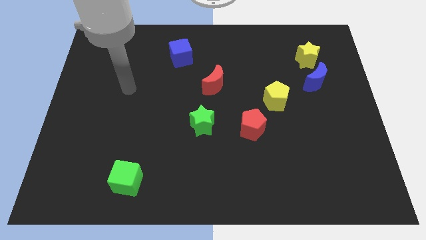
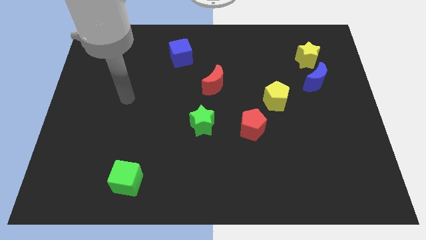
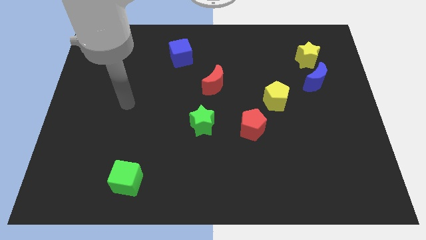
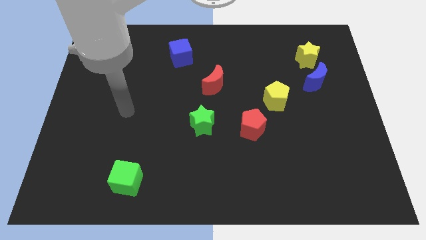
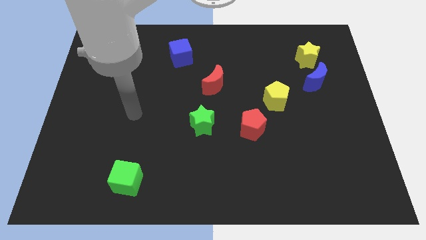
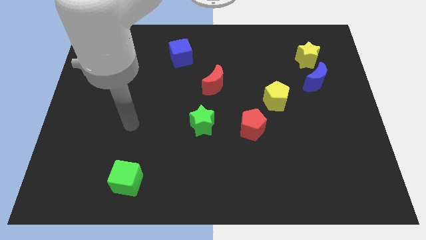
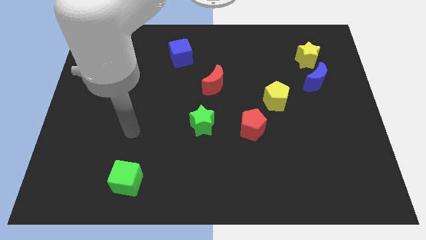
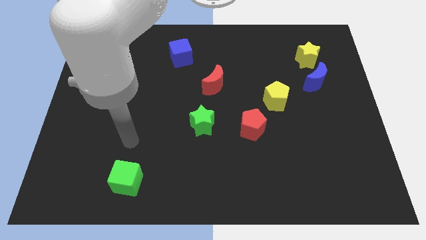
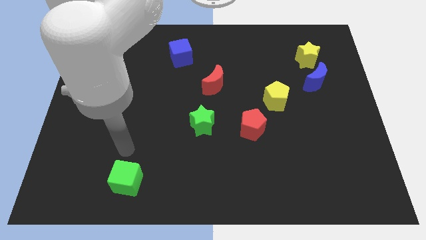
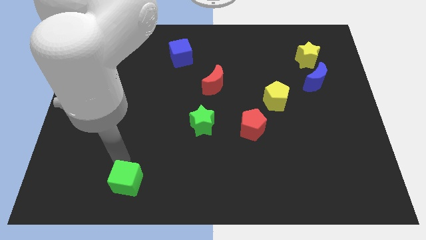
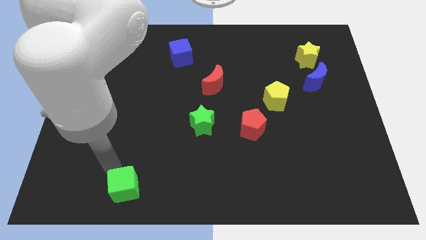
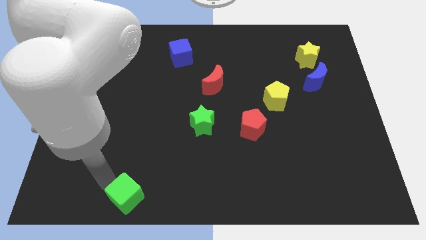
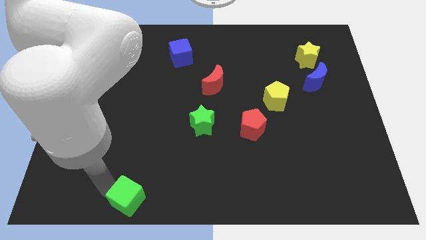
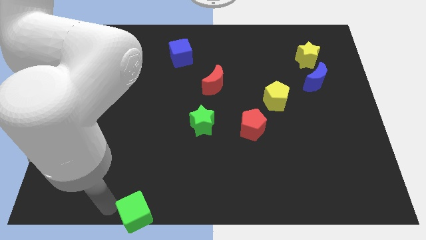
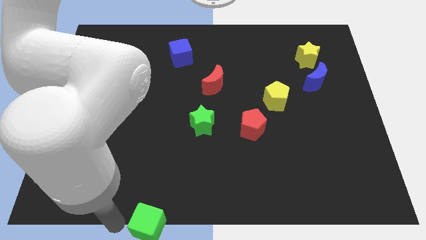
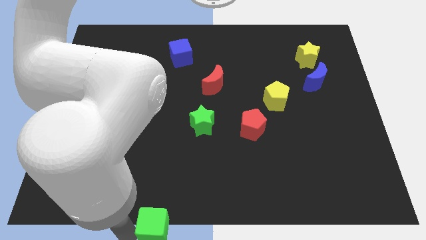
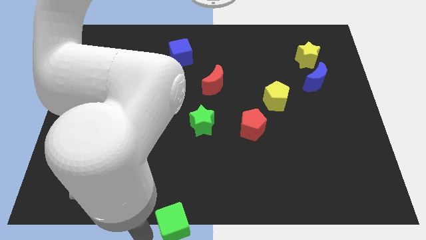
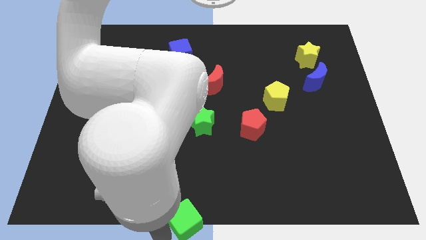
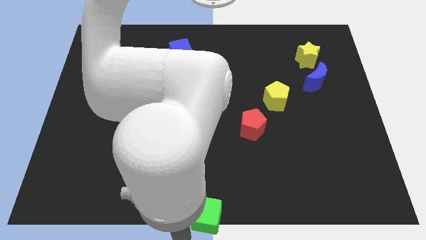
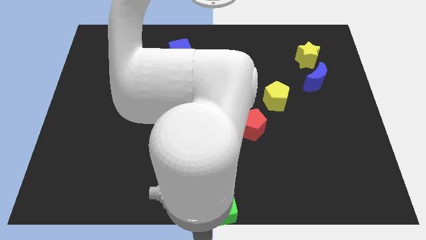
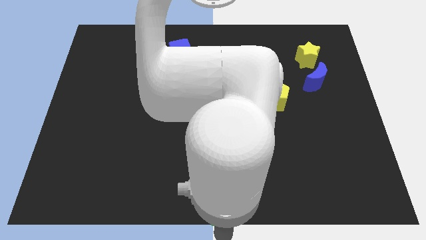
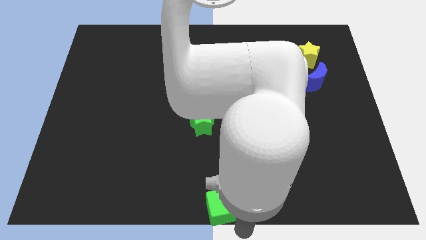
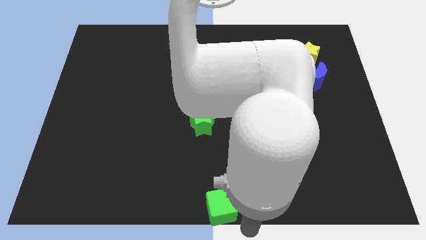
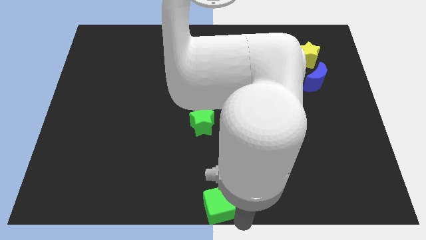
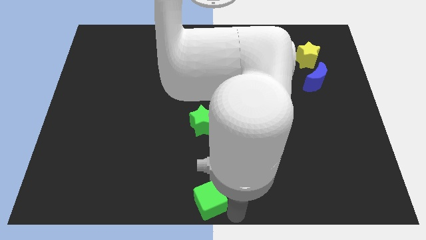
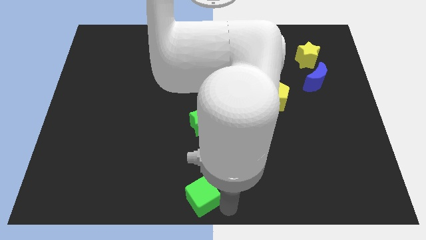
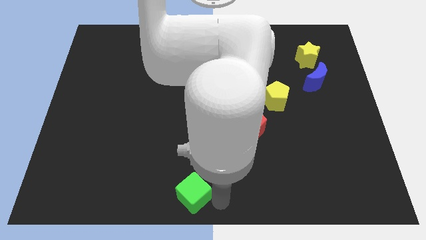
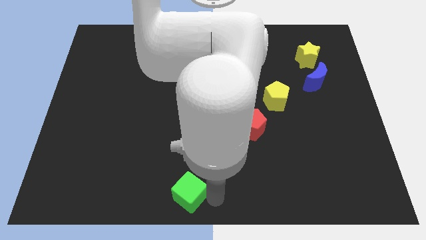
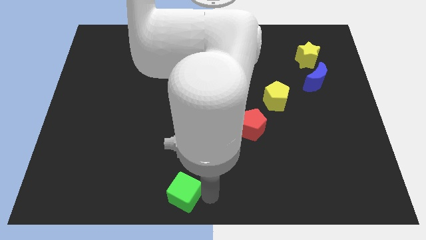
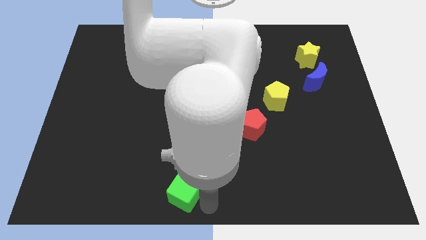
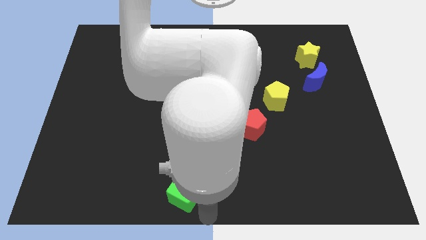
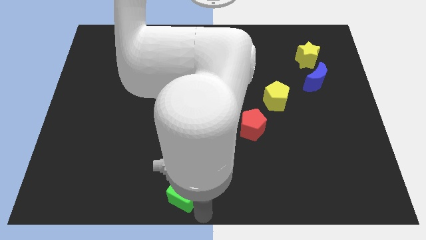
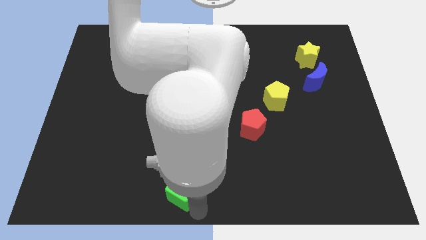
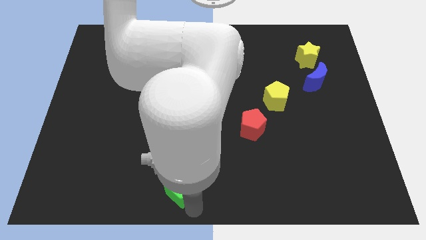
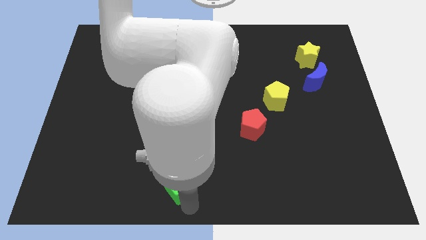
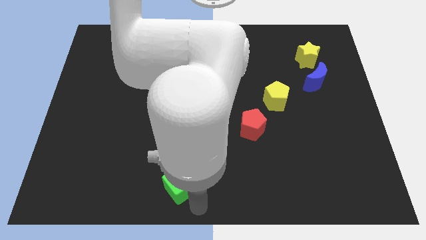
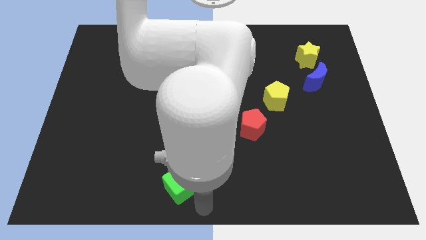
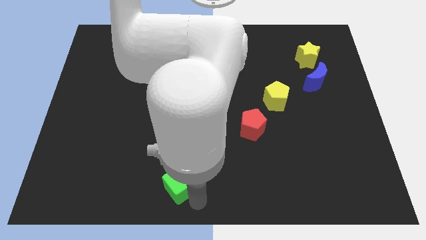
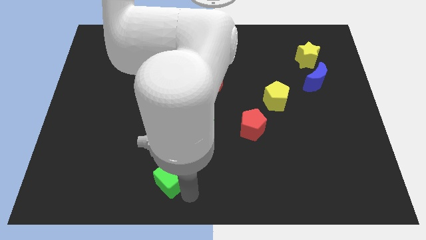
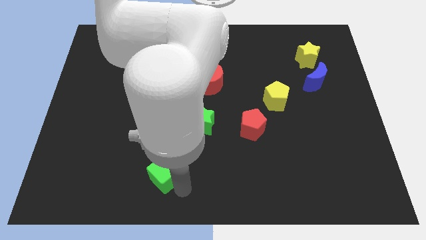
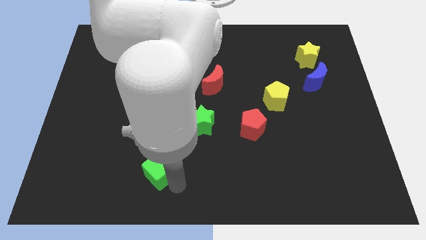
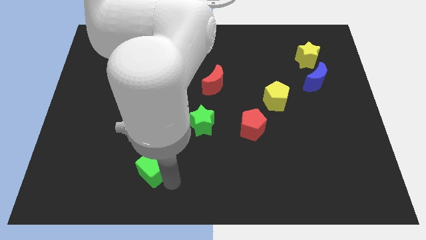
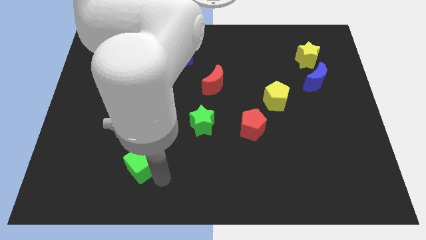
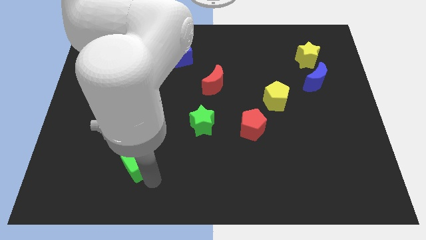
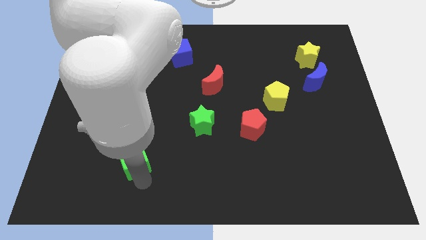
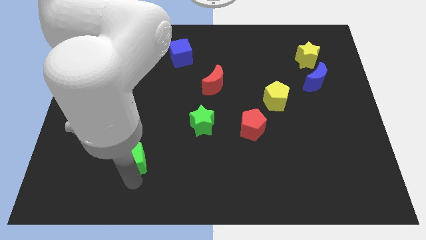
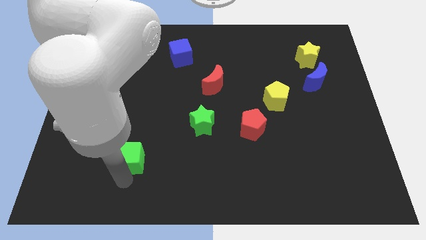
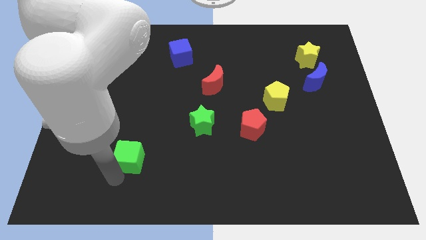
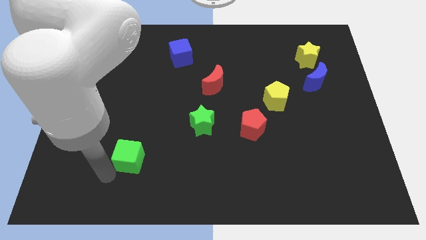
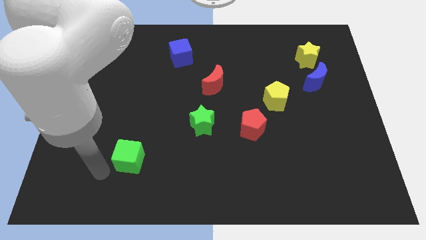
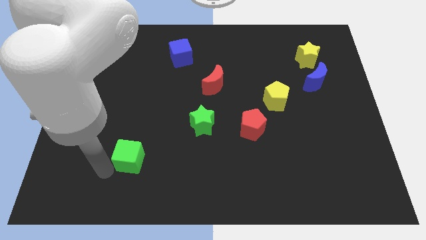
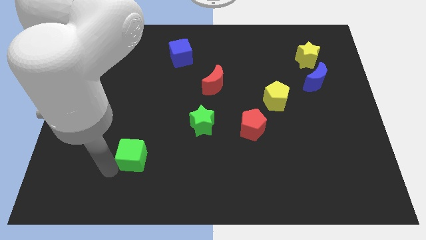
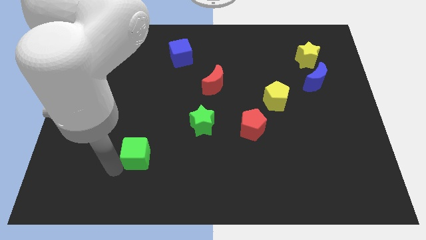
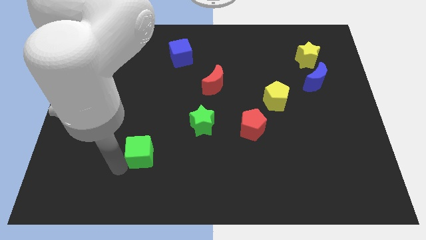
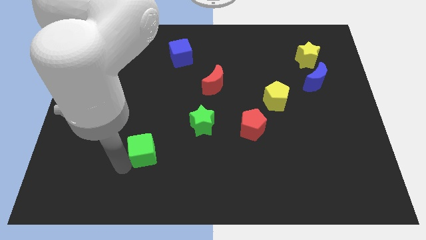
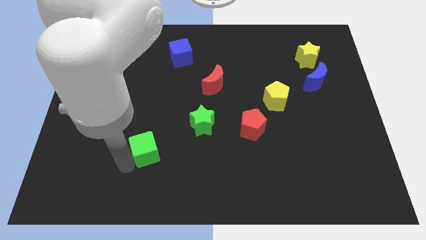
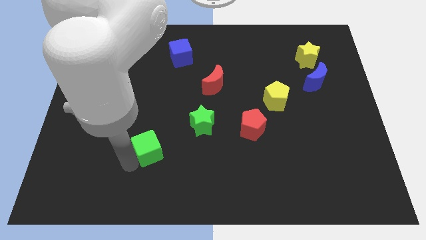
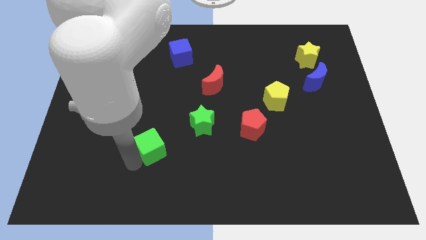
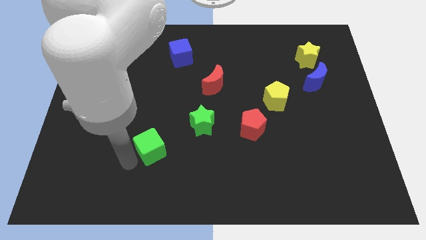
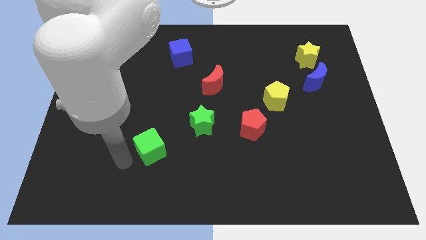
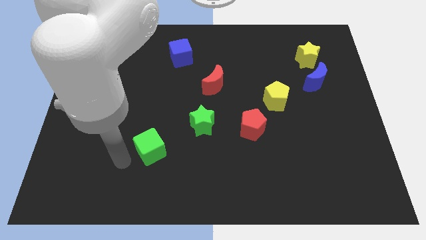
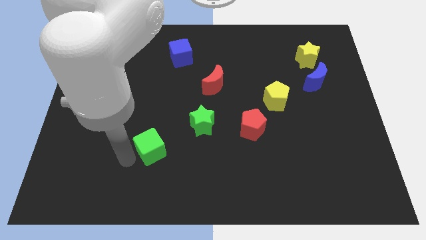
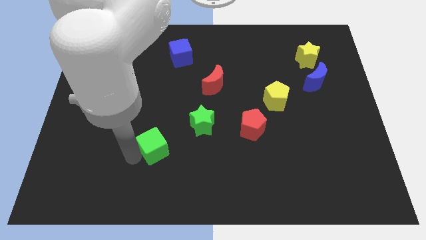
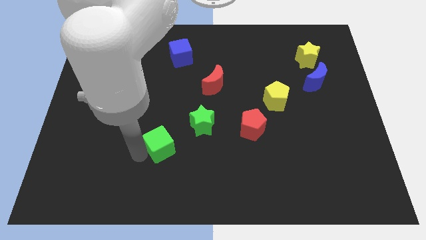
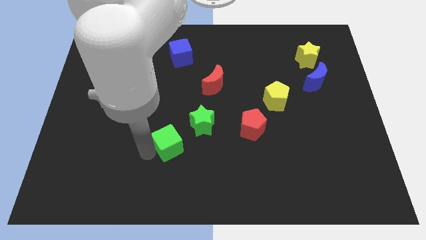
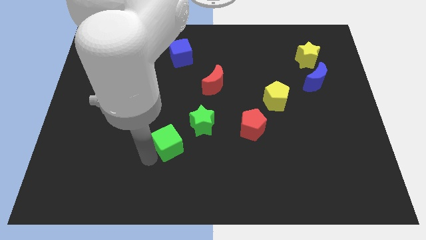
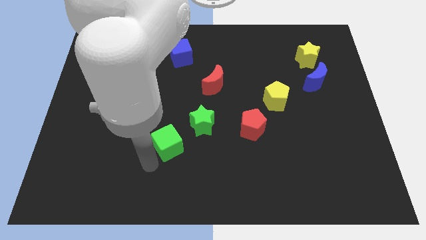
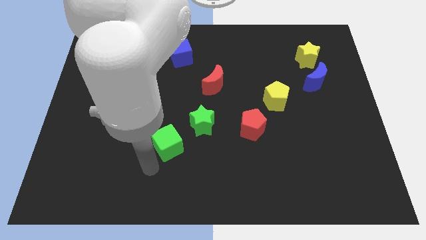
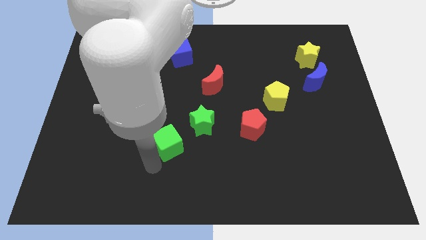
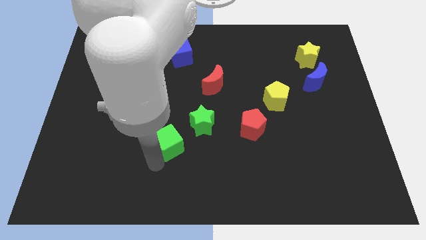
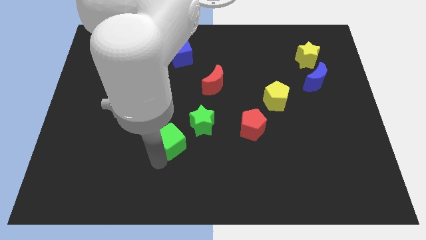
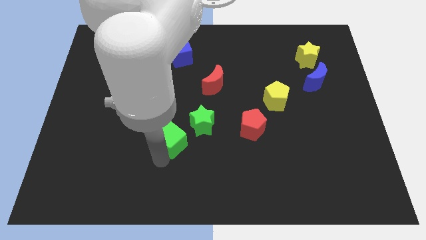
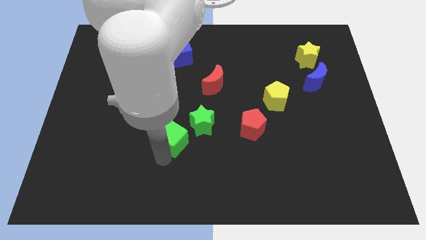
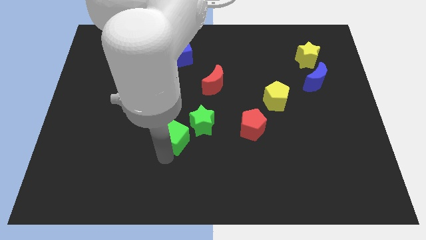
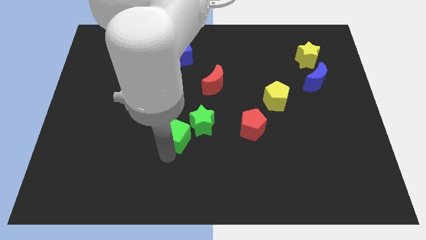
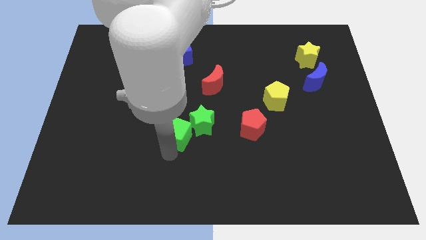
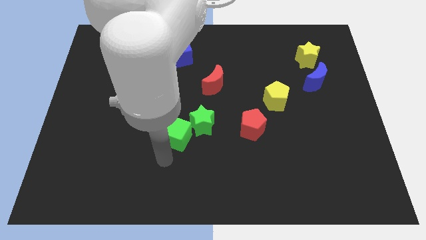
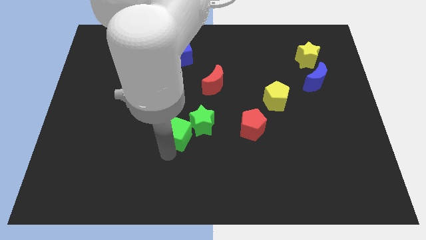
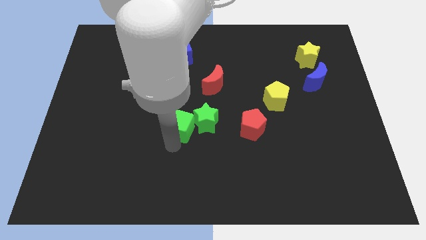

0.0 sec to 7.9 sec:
slide the green cube to the center

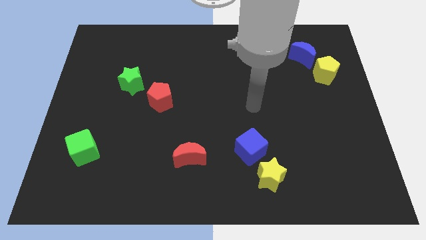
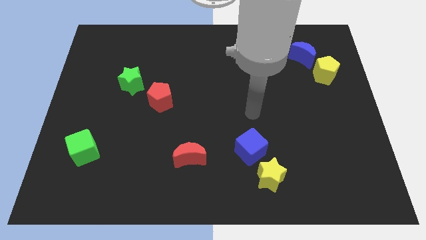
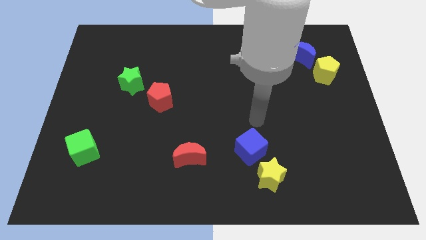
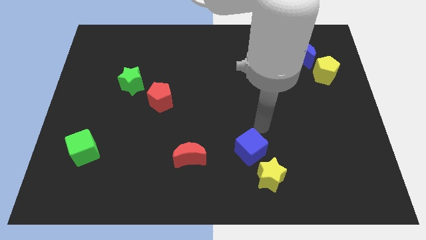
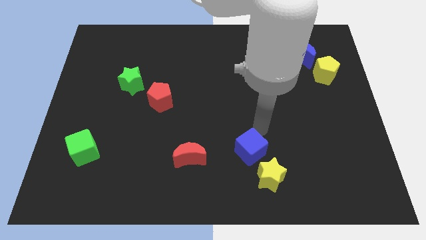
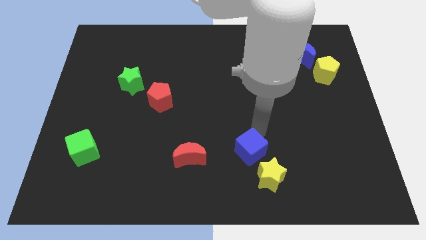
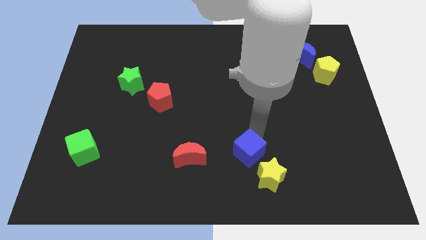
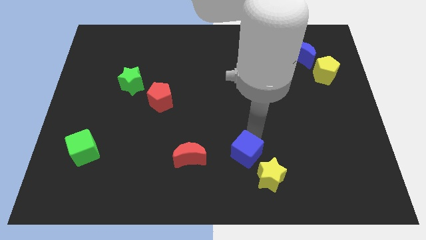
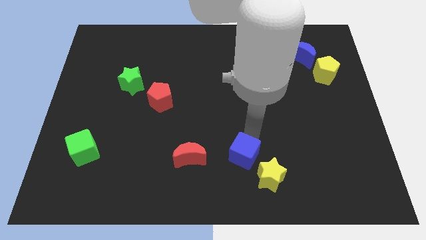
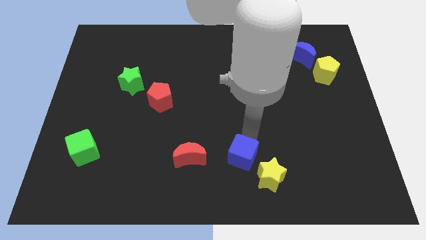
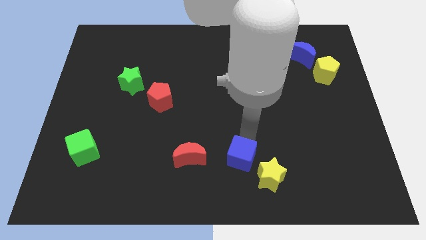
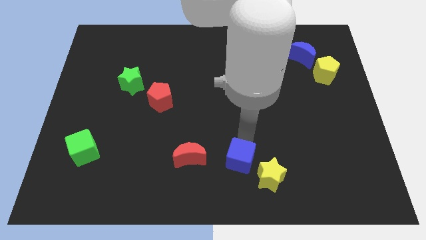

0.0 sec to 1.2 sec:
push the blue cube to the bottom
